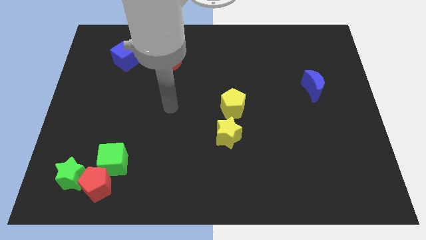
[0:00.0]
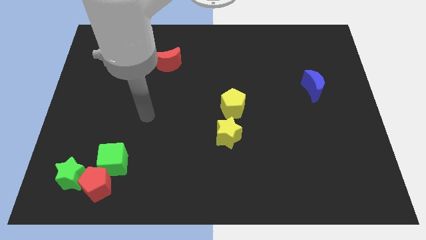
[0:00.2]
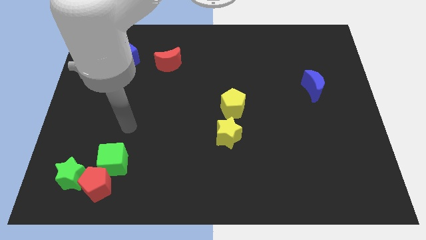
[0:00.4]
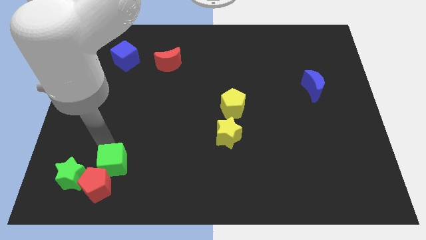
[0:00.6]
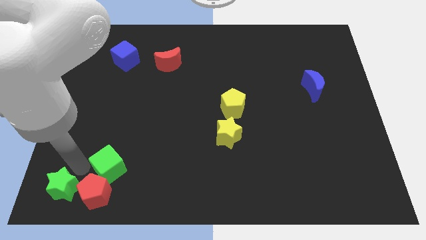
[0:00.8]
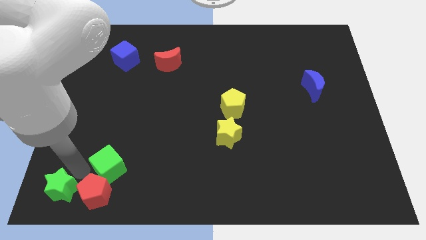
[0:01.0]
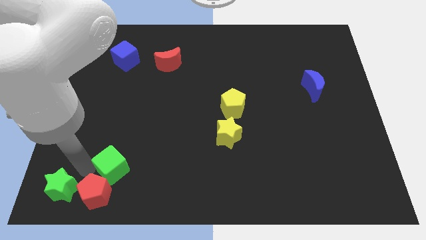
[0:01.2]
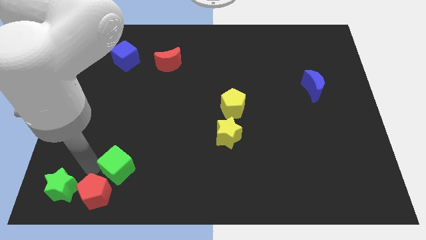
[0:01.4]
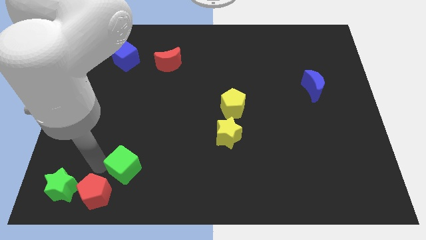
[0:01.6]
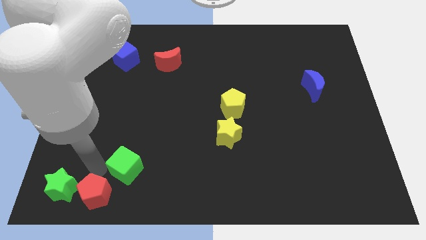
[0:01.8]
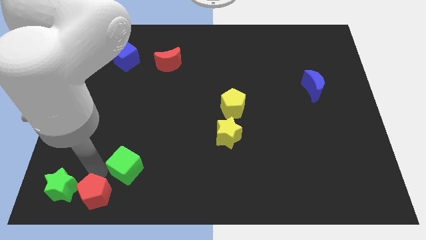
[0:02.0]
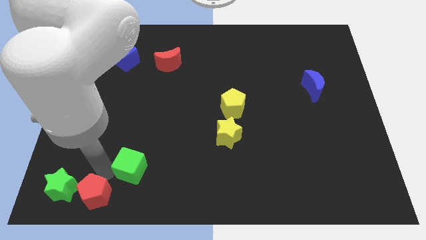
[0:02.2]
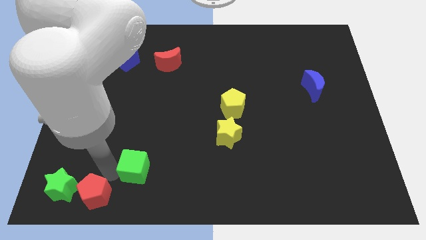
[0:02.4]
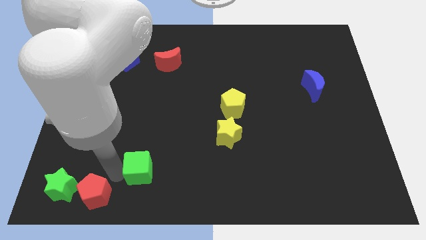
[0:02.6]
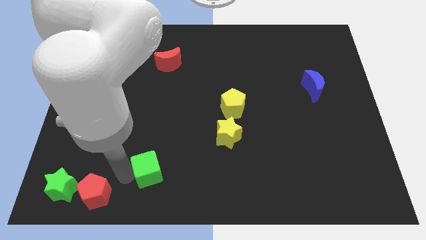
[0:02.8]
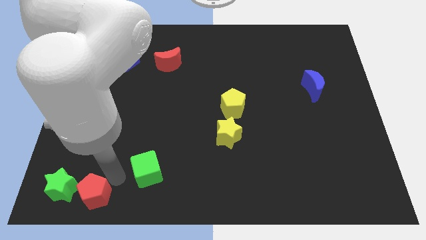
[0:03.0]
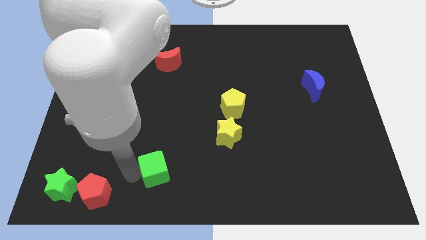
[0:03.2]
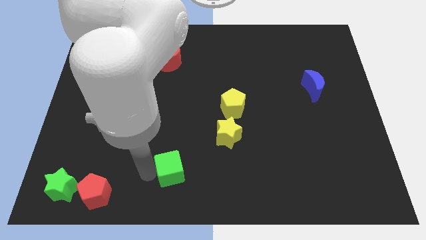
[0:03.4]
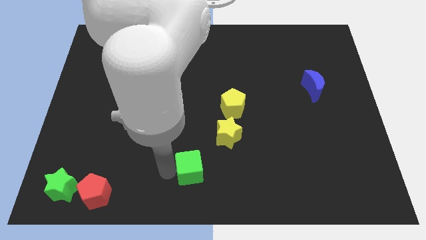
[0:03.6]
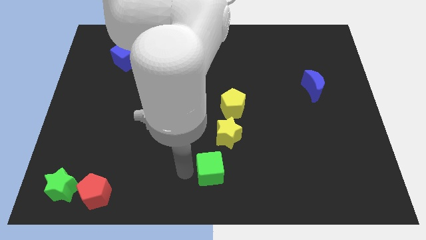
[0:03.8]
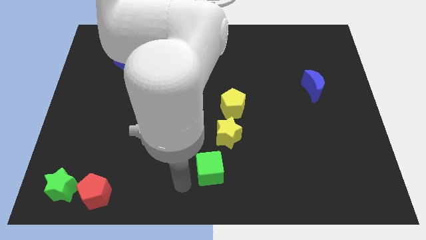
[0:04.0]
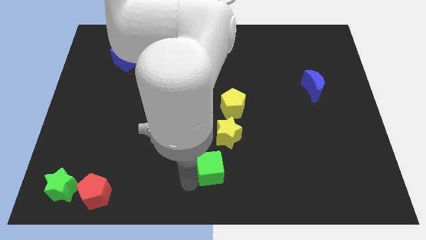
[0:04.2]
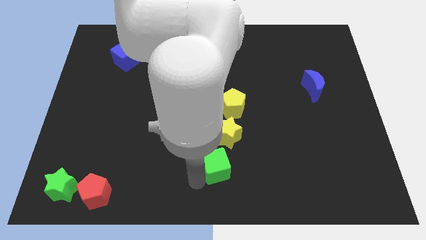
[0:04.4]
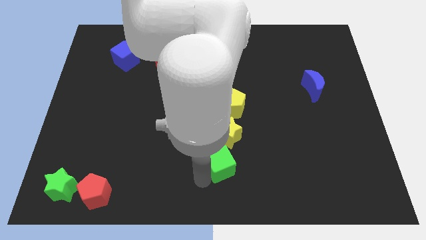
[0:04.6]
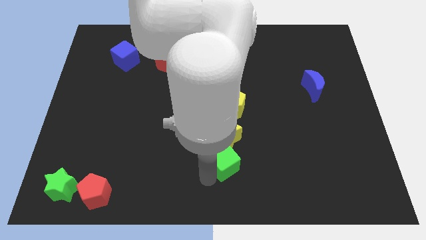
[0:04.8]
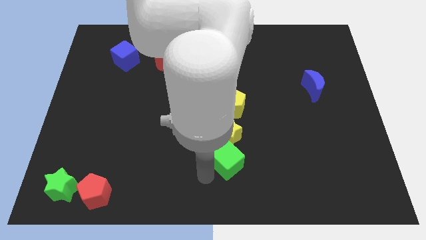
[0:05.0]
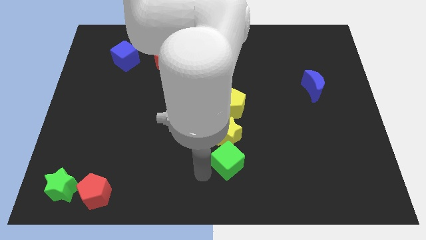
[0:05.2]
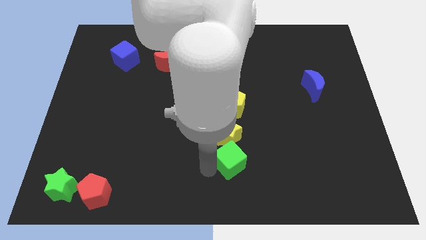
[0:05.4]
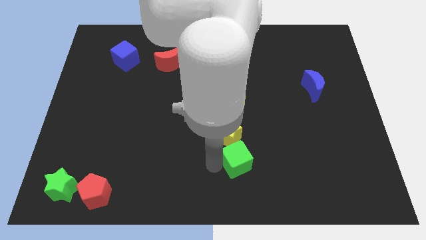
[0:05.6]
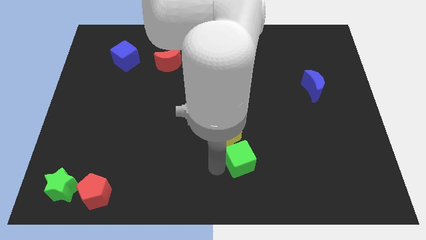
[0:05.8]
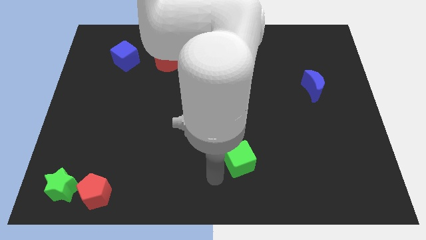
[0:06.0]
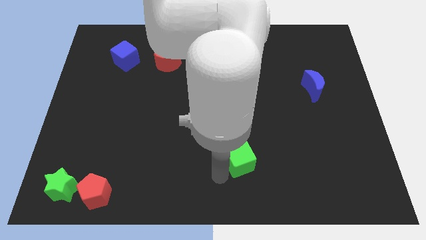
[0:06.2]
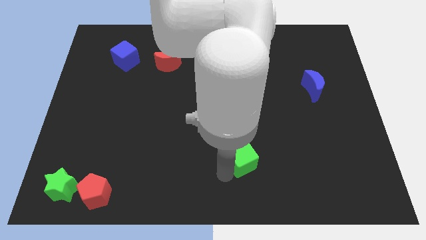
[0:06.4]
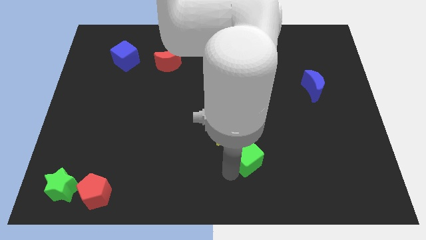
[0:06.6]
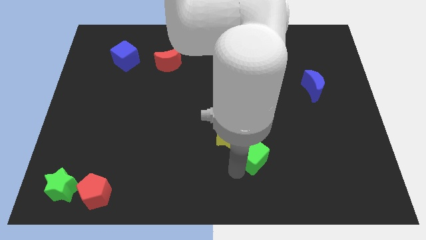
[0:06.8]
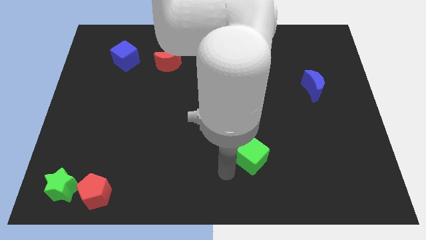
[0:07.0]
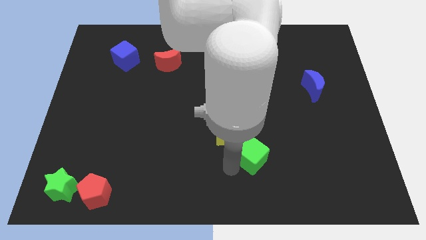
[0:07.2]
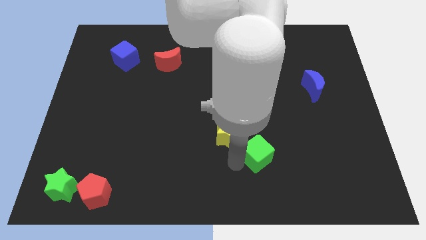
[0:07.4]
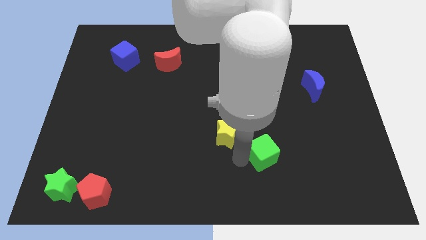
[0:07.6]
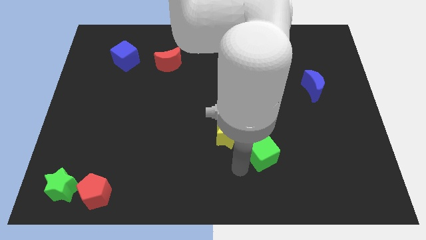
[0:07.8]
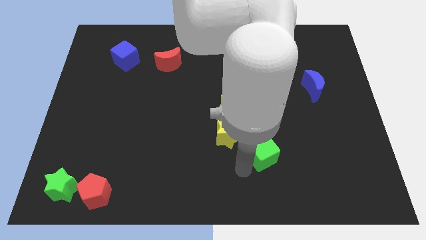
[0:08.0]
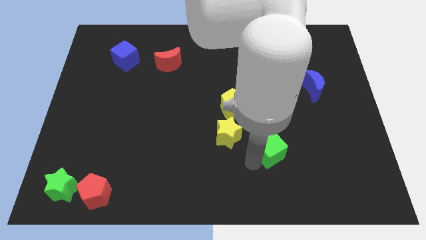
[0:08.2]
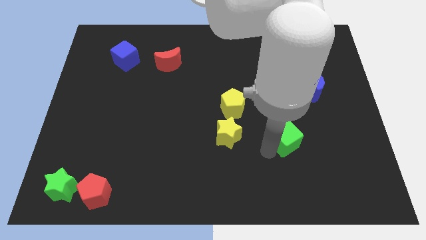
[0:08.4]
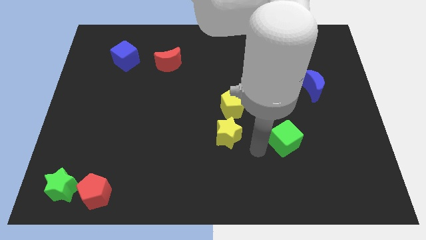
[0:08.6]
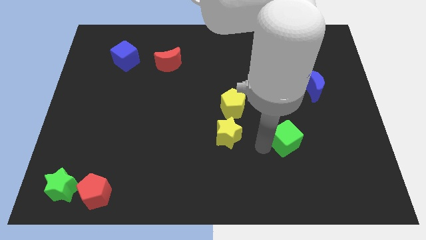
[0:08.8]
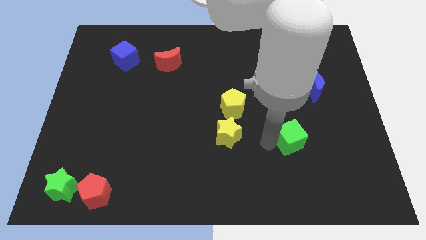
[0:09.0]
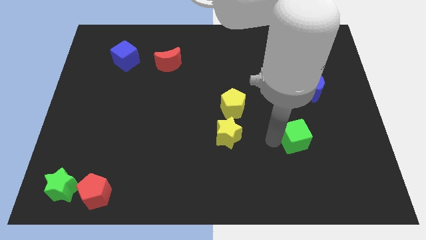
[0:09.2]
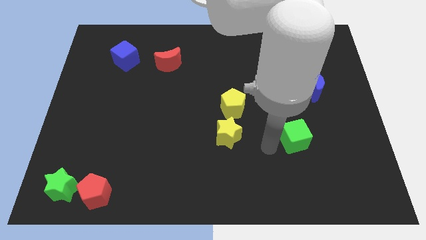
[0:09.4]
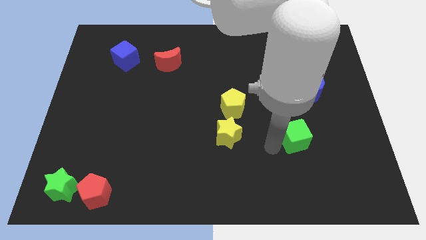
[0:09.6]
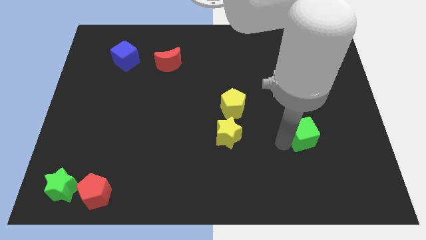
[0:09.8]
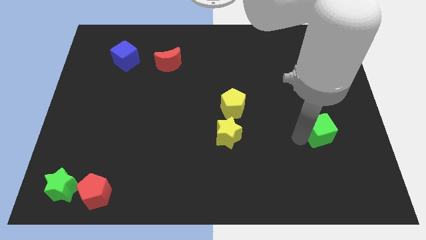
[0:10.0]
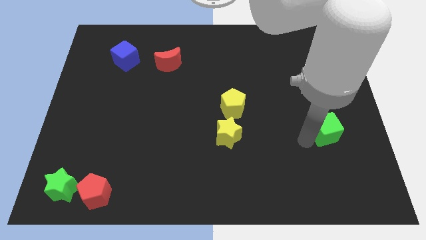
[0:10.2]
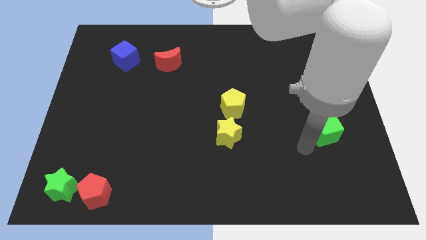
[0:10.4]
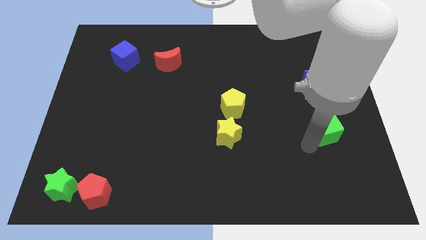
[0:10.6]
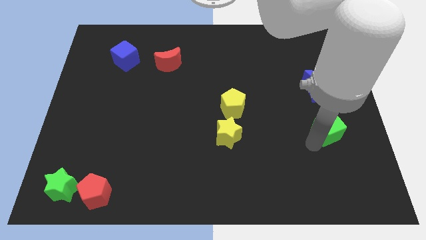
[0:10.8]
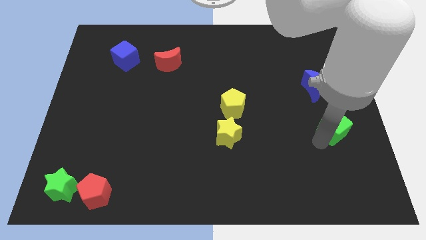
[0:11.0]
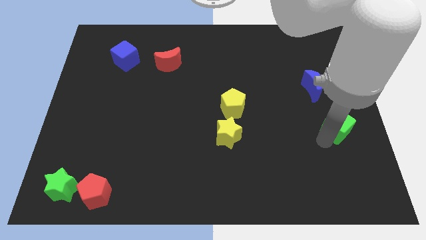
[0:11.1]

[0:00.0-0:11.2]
move the green cube to the right side of the board
